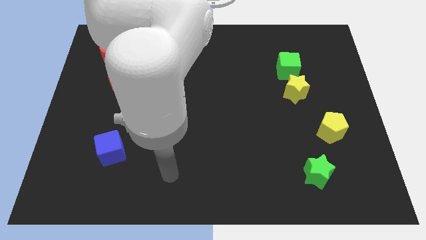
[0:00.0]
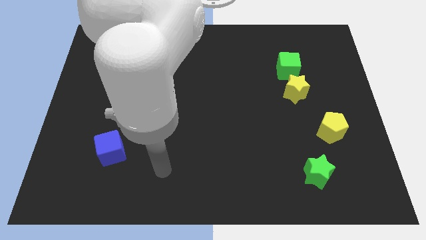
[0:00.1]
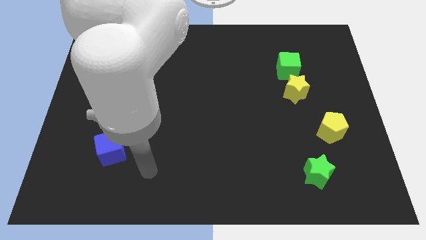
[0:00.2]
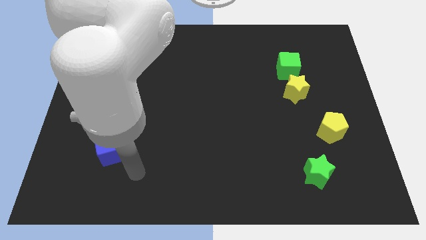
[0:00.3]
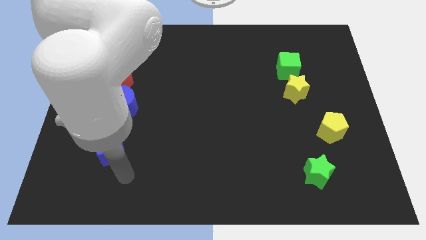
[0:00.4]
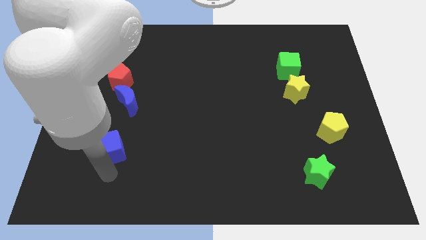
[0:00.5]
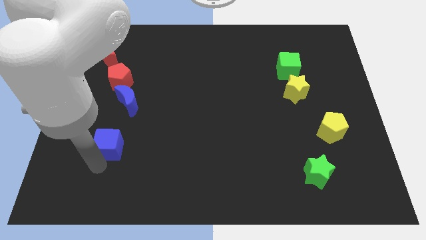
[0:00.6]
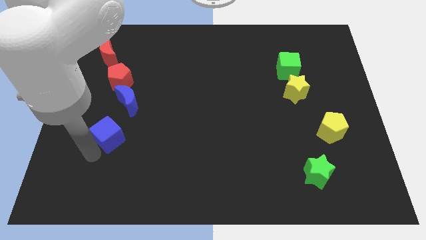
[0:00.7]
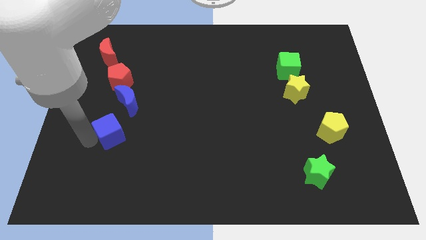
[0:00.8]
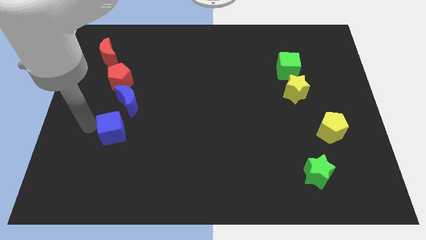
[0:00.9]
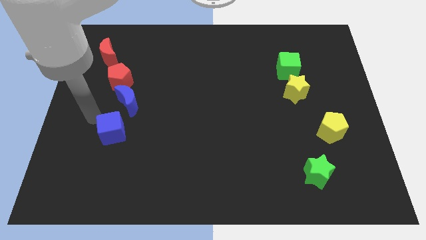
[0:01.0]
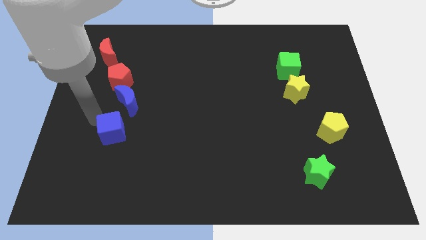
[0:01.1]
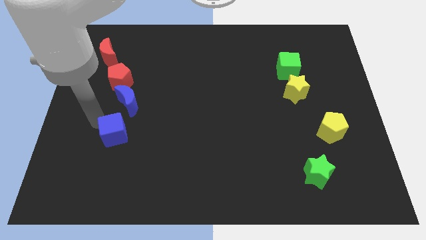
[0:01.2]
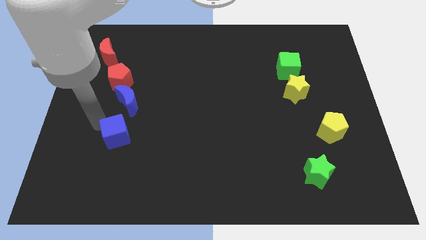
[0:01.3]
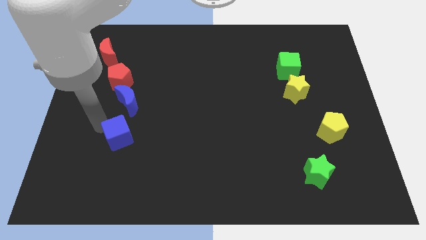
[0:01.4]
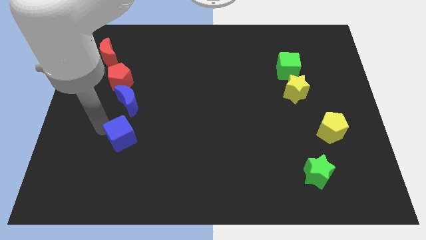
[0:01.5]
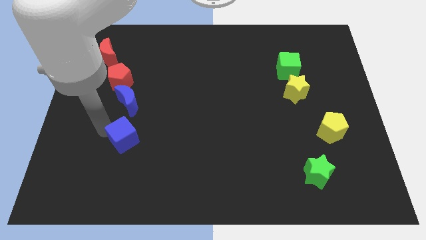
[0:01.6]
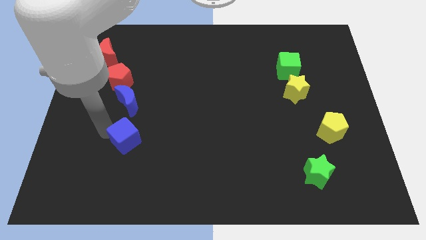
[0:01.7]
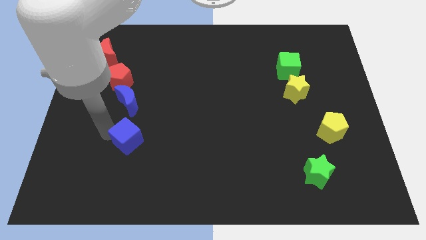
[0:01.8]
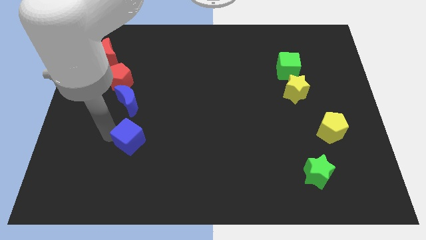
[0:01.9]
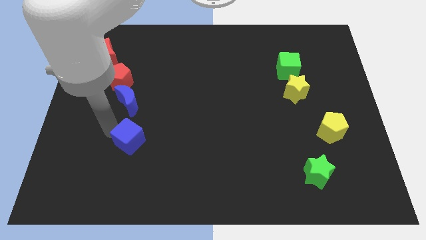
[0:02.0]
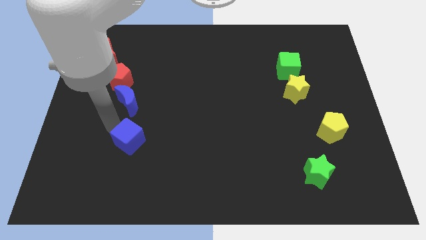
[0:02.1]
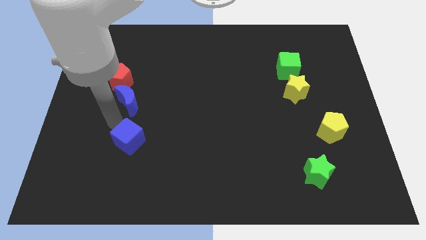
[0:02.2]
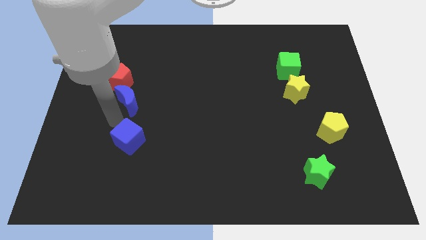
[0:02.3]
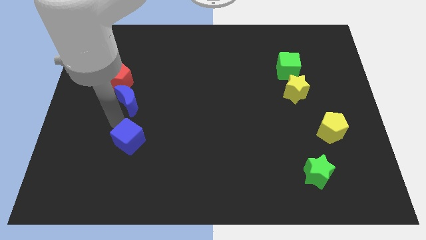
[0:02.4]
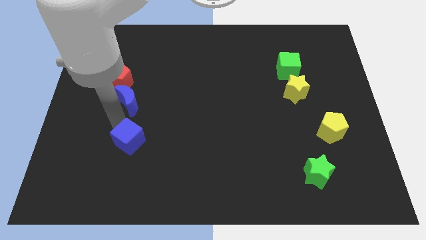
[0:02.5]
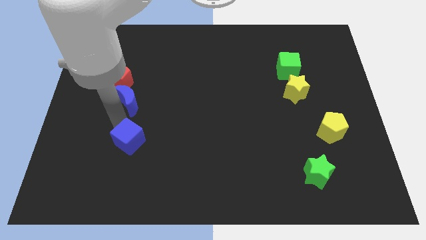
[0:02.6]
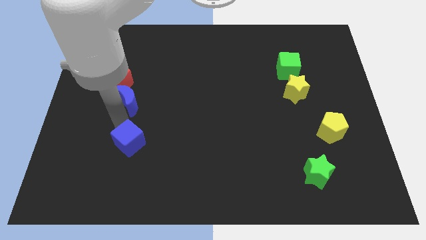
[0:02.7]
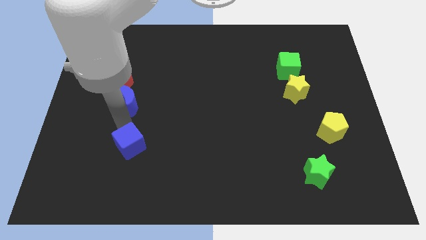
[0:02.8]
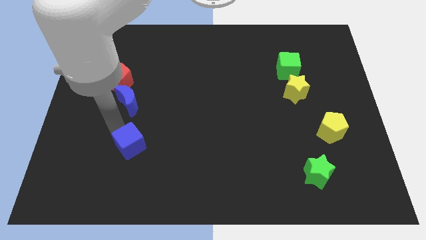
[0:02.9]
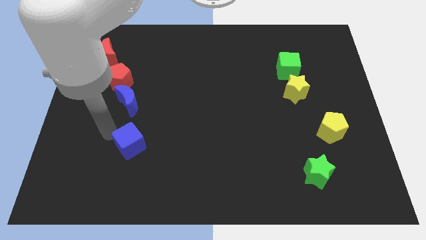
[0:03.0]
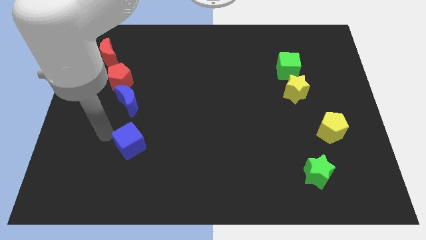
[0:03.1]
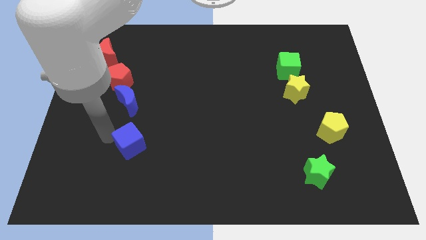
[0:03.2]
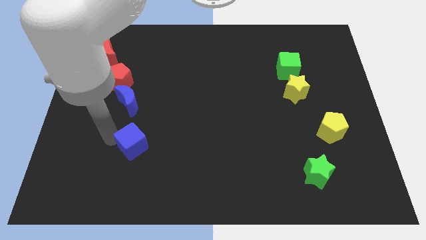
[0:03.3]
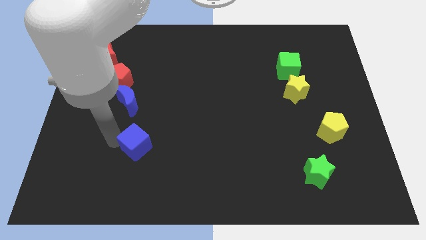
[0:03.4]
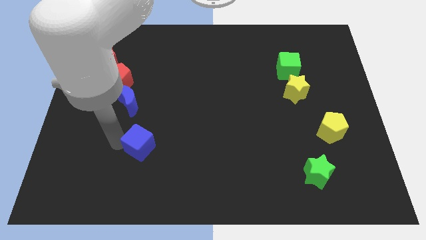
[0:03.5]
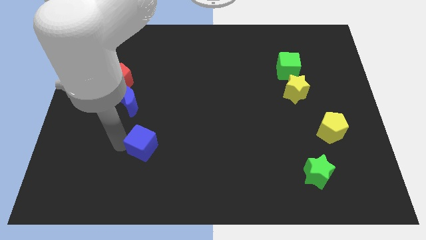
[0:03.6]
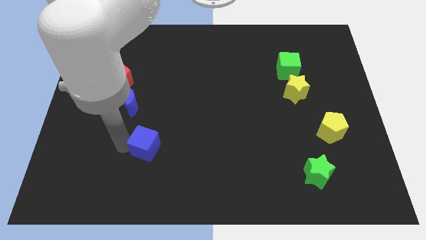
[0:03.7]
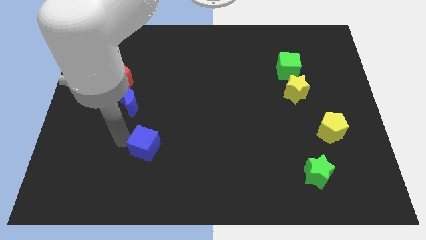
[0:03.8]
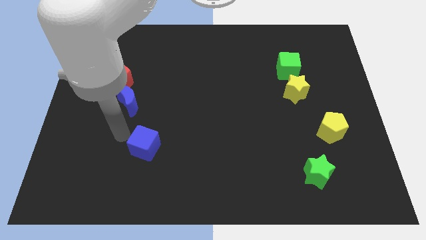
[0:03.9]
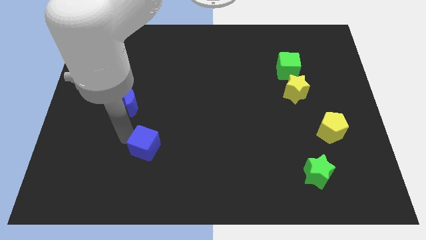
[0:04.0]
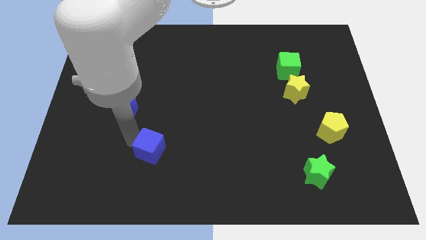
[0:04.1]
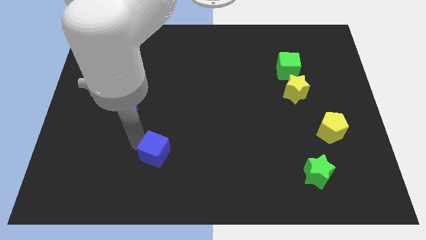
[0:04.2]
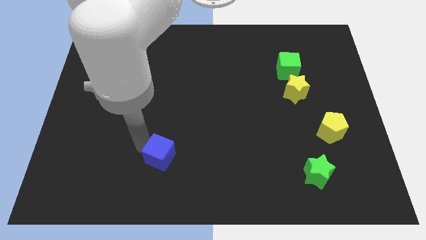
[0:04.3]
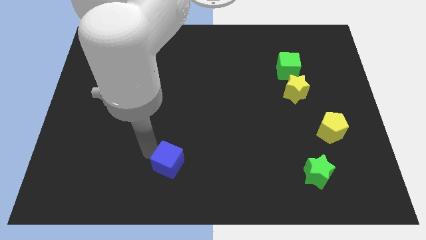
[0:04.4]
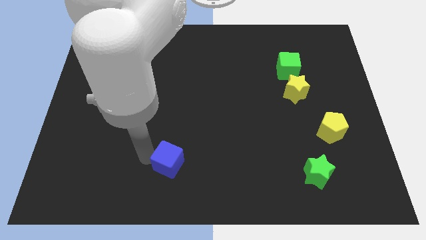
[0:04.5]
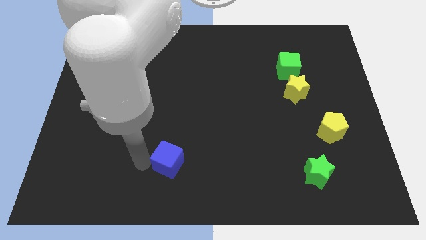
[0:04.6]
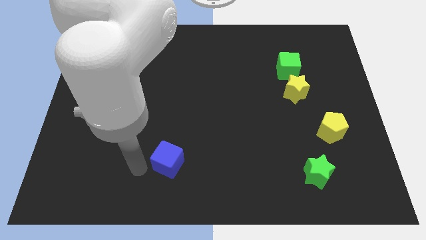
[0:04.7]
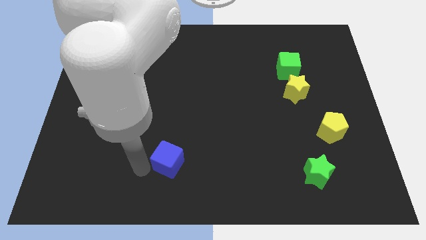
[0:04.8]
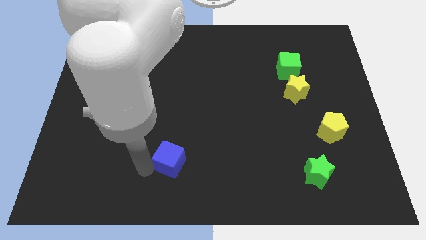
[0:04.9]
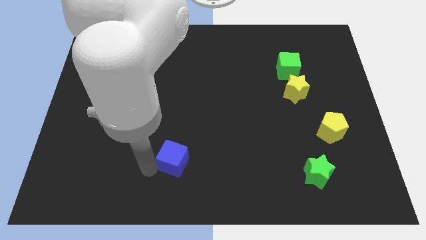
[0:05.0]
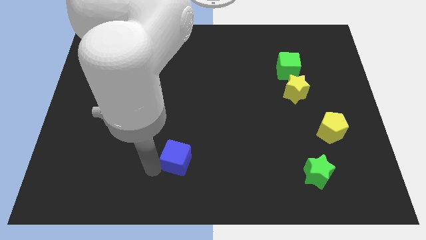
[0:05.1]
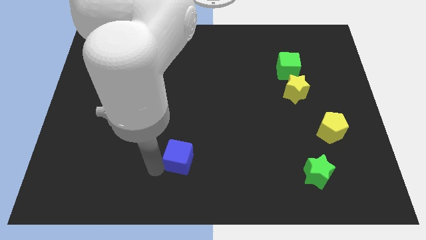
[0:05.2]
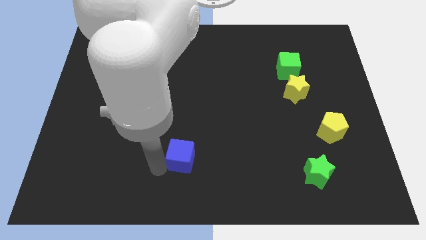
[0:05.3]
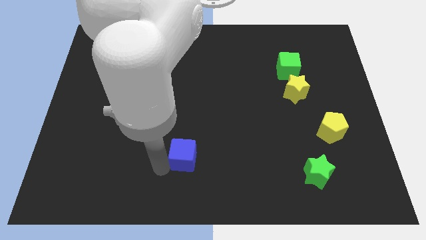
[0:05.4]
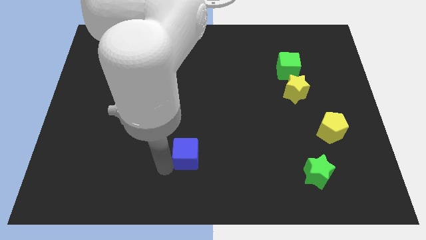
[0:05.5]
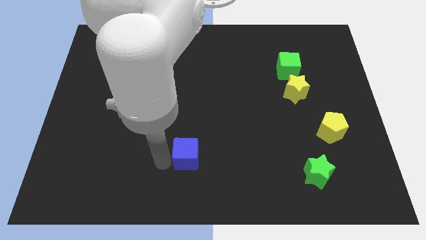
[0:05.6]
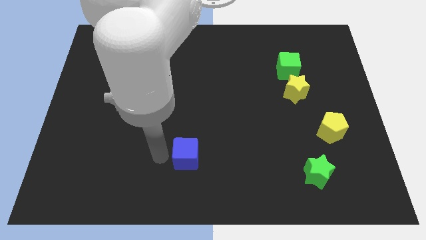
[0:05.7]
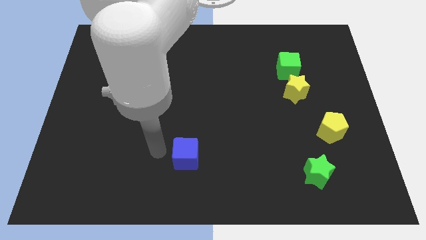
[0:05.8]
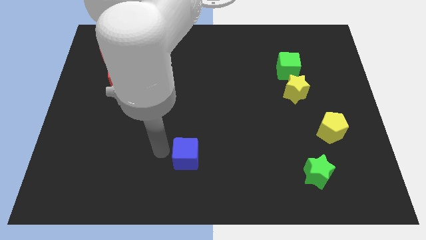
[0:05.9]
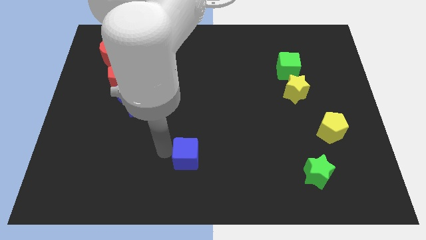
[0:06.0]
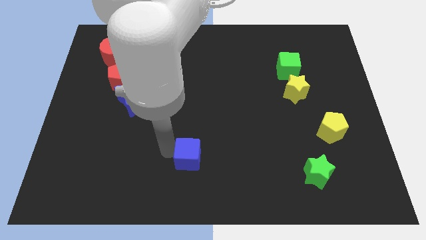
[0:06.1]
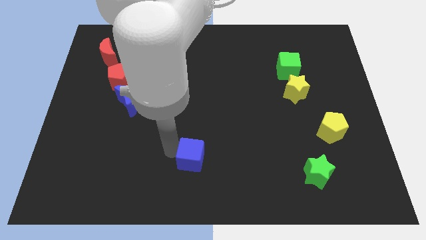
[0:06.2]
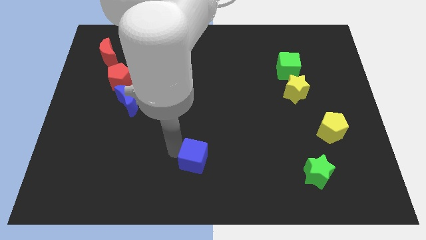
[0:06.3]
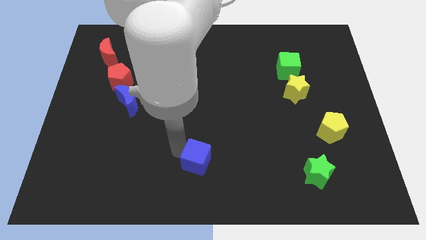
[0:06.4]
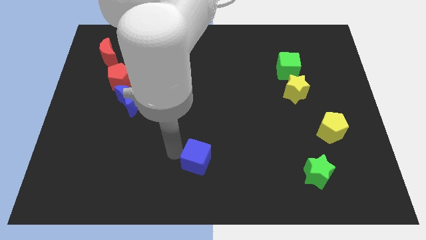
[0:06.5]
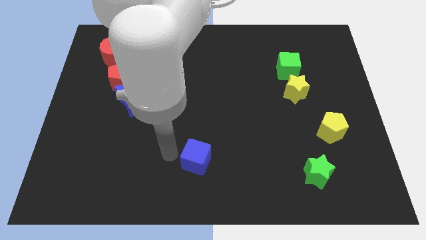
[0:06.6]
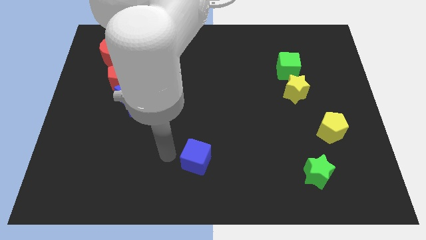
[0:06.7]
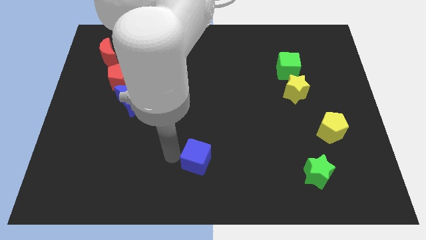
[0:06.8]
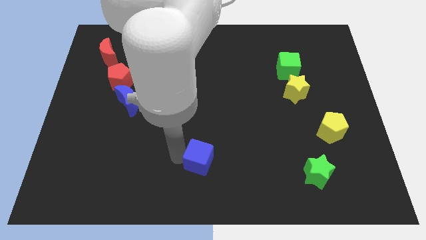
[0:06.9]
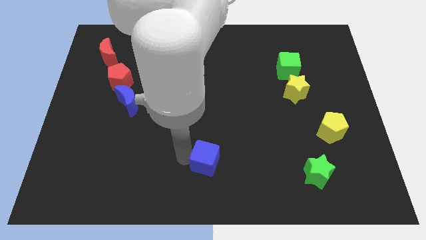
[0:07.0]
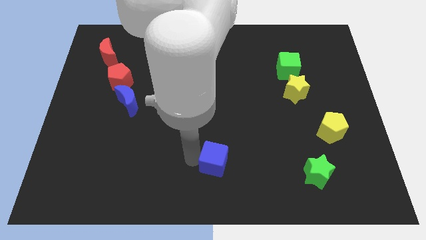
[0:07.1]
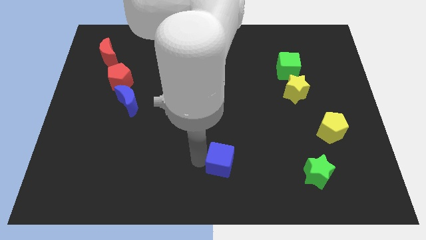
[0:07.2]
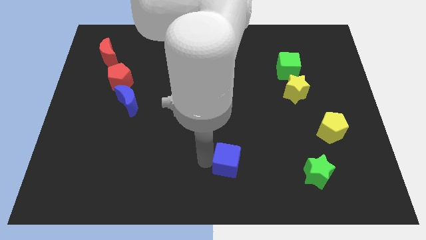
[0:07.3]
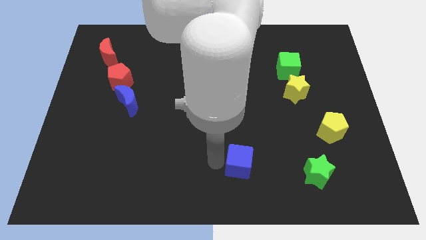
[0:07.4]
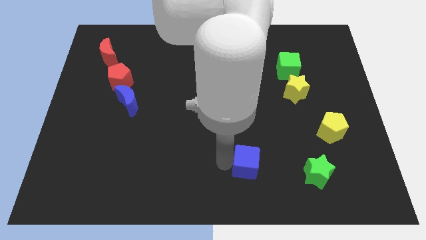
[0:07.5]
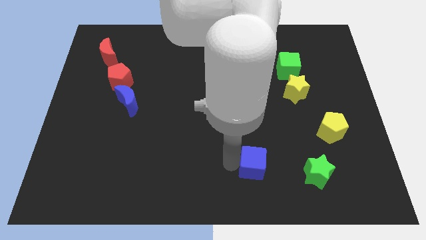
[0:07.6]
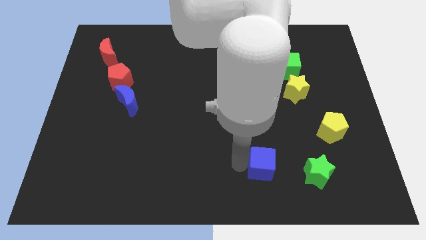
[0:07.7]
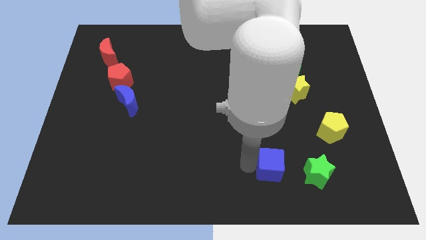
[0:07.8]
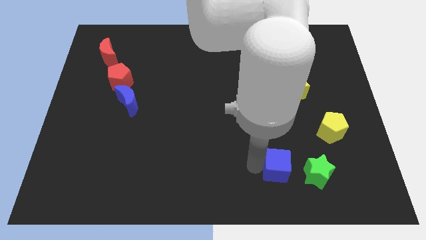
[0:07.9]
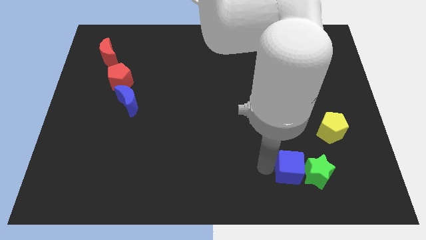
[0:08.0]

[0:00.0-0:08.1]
slide the blue cube towards the green star
